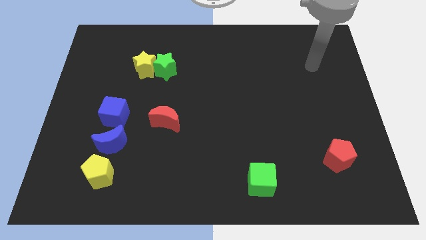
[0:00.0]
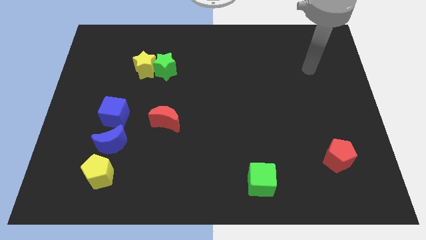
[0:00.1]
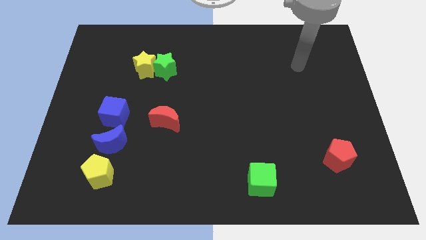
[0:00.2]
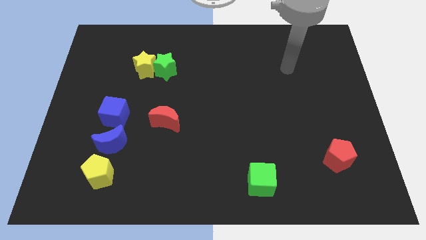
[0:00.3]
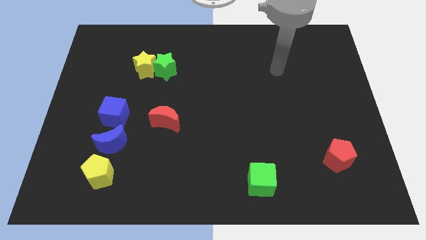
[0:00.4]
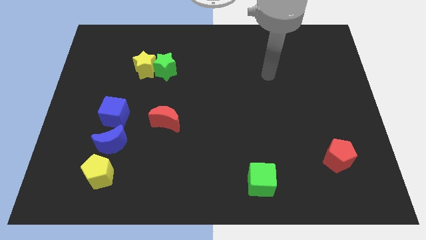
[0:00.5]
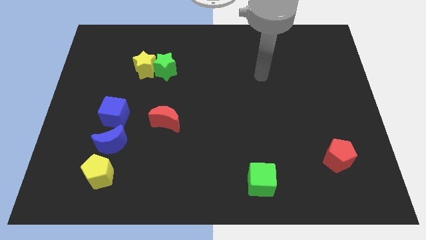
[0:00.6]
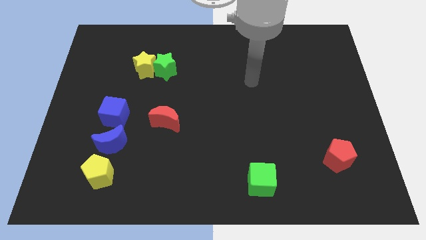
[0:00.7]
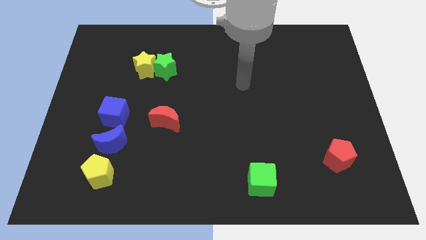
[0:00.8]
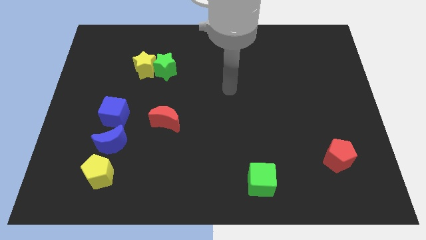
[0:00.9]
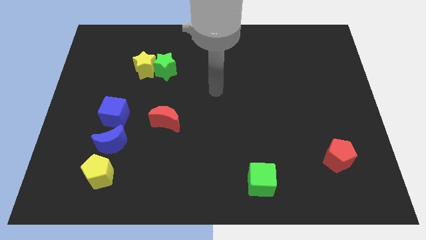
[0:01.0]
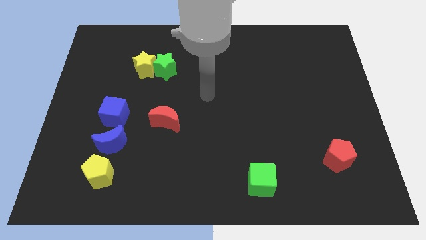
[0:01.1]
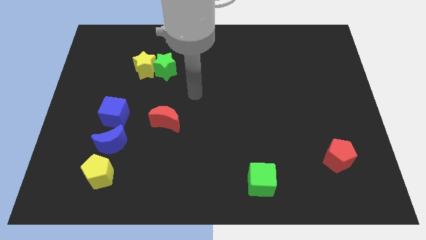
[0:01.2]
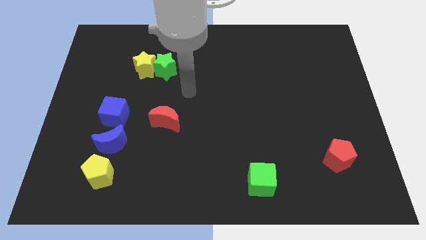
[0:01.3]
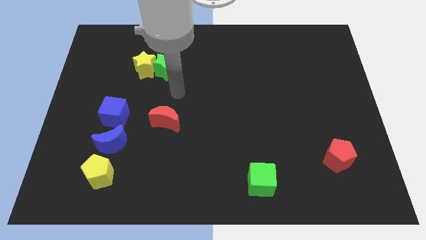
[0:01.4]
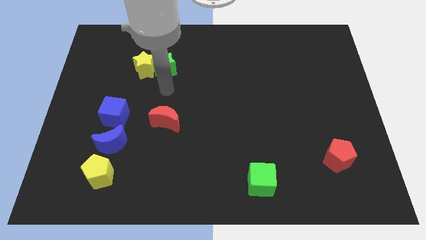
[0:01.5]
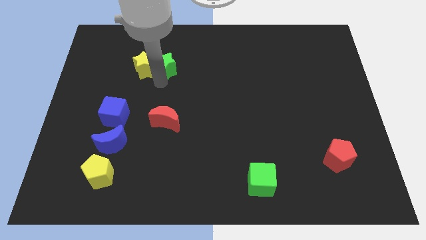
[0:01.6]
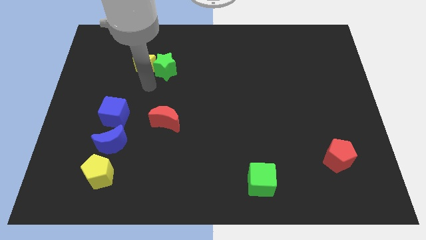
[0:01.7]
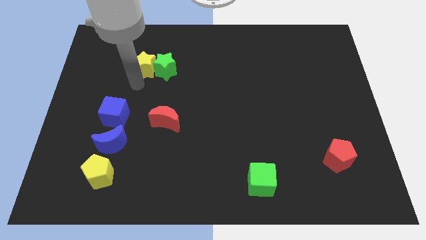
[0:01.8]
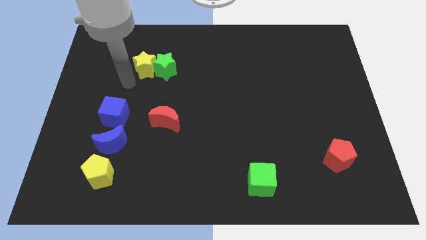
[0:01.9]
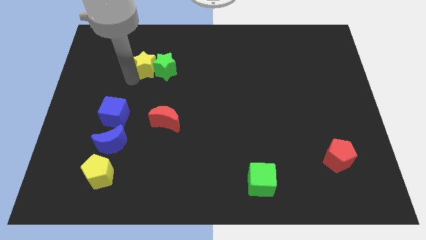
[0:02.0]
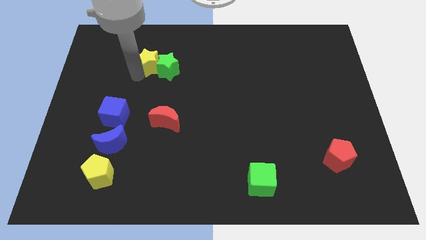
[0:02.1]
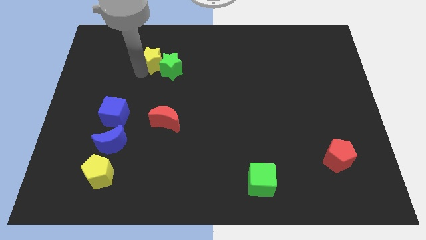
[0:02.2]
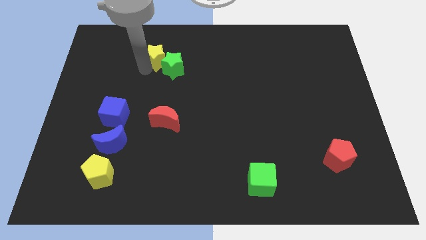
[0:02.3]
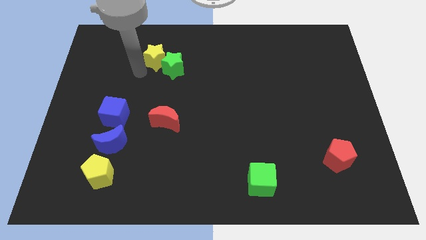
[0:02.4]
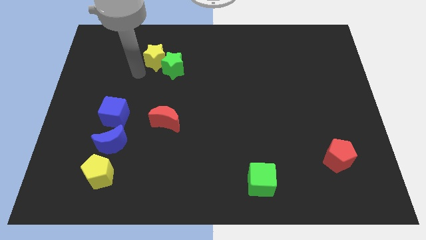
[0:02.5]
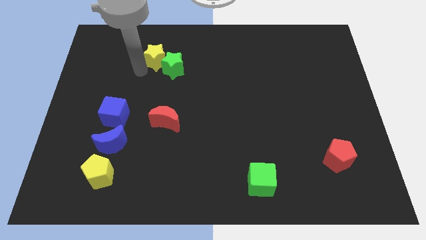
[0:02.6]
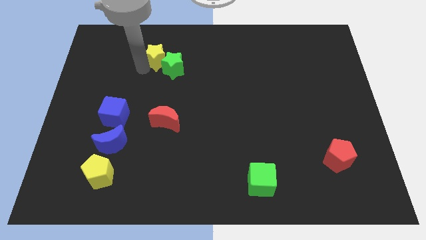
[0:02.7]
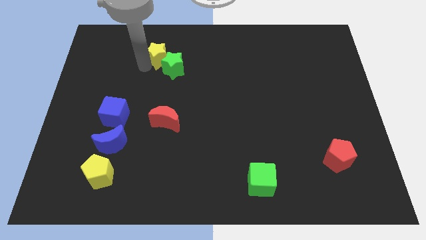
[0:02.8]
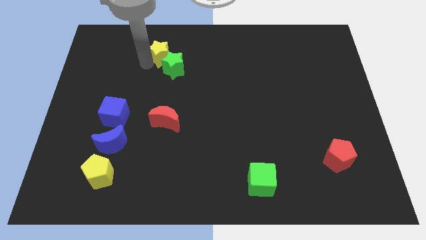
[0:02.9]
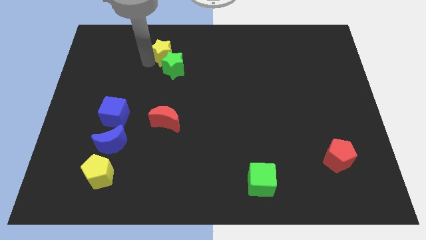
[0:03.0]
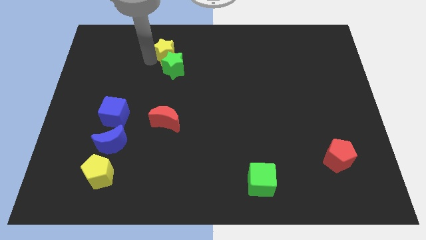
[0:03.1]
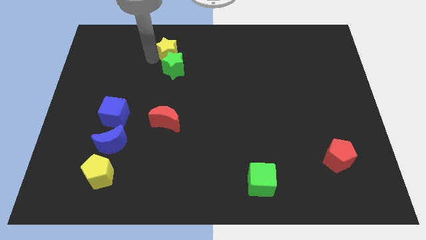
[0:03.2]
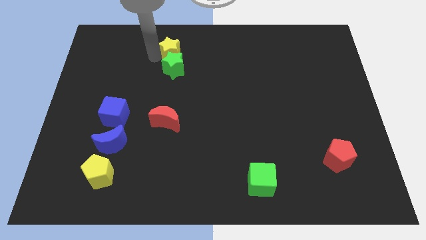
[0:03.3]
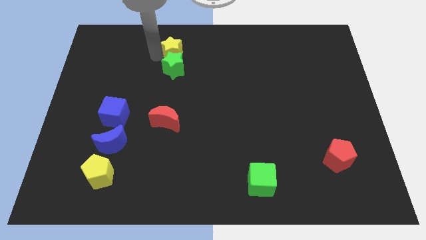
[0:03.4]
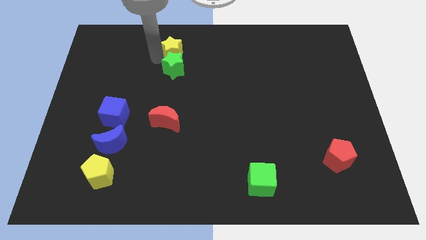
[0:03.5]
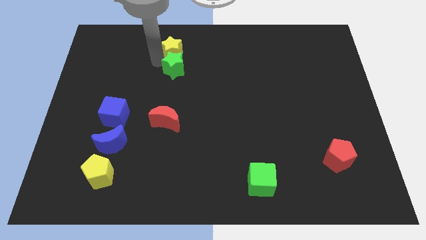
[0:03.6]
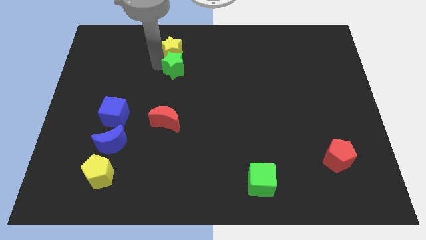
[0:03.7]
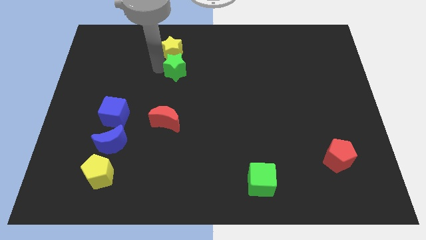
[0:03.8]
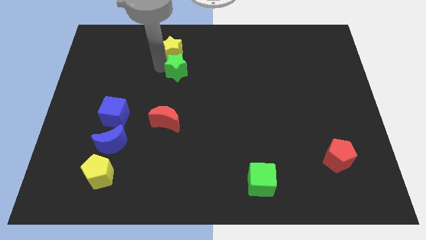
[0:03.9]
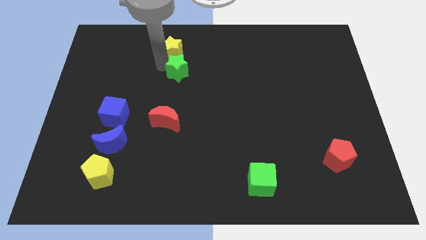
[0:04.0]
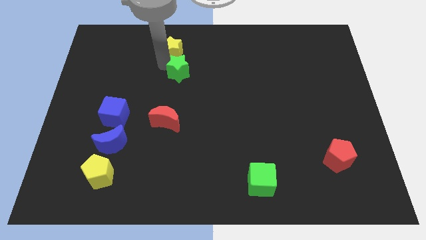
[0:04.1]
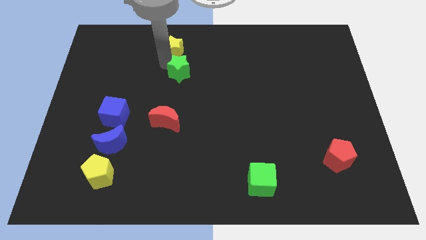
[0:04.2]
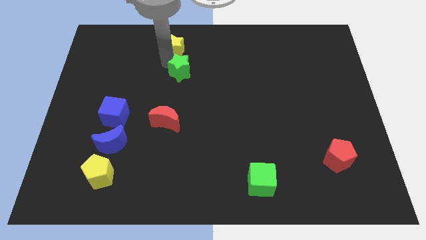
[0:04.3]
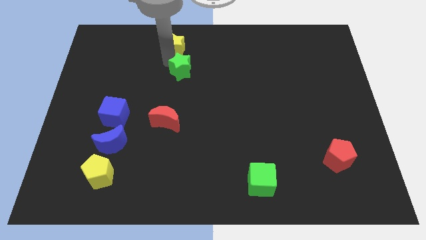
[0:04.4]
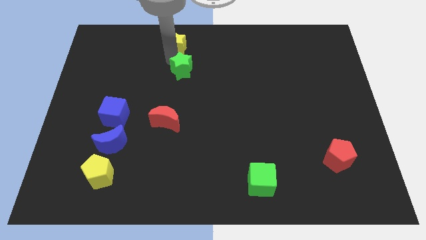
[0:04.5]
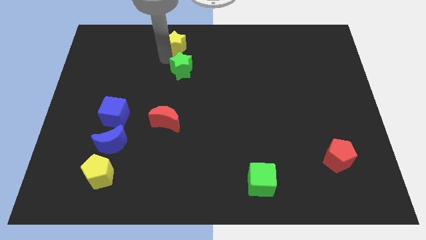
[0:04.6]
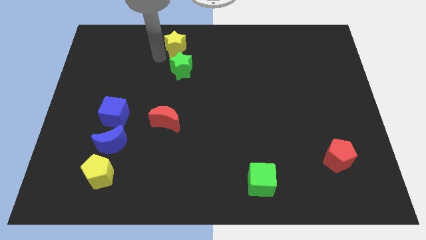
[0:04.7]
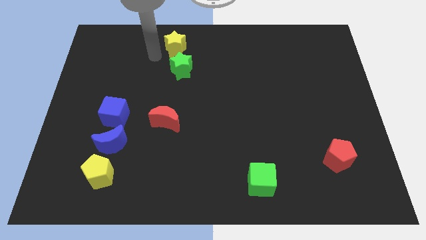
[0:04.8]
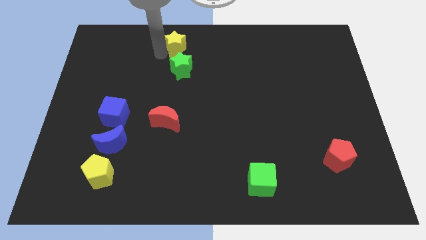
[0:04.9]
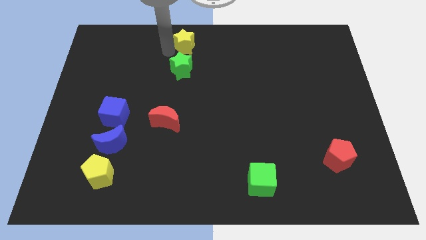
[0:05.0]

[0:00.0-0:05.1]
slide the yellow star to the towards your base

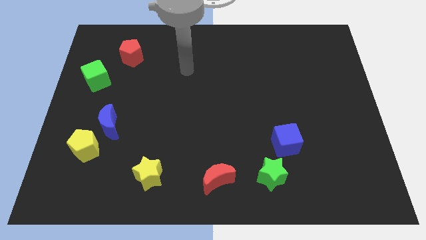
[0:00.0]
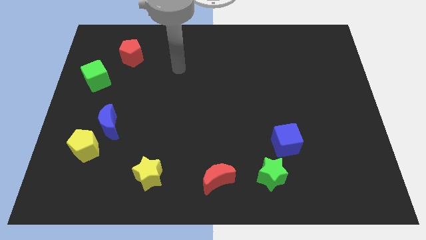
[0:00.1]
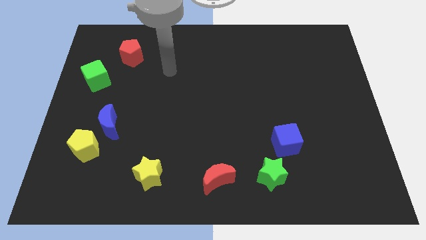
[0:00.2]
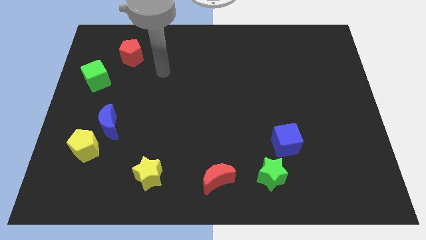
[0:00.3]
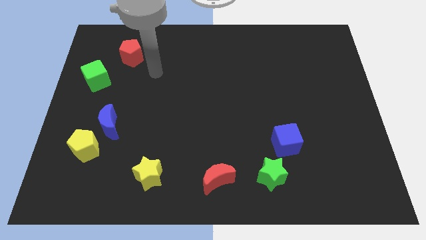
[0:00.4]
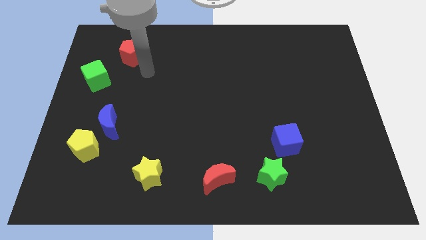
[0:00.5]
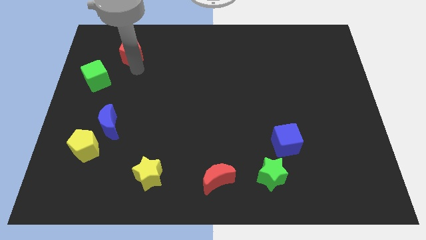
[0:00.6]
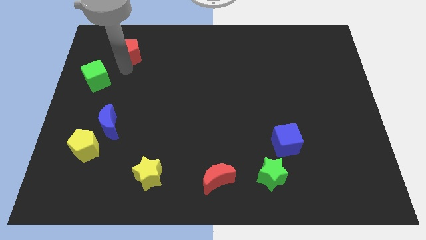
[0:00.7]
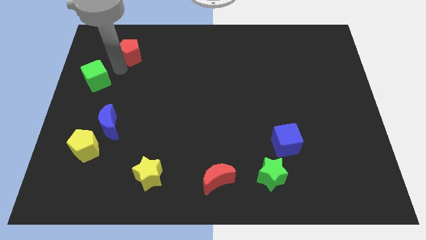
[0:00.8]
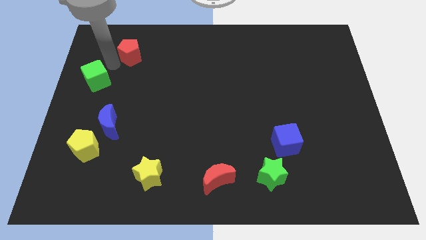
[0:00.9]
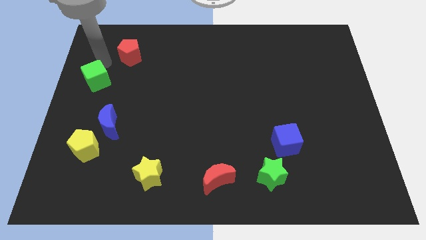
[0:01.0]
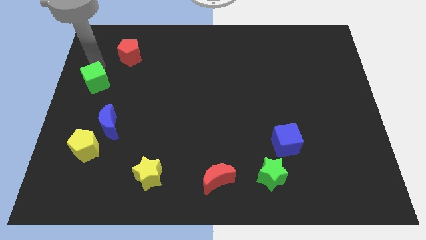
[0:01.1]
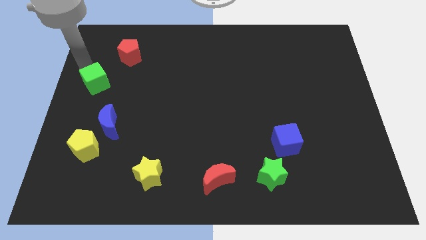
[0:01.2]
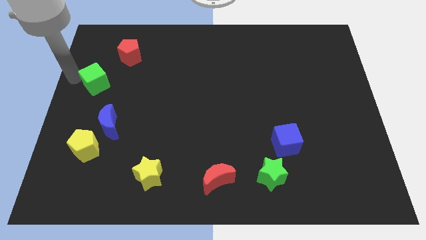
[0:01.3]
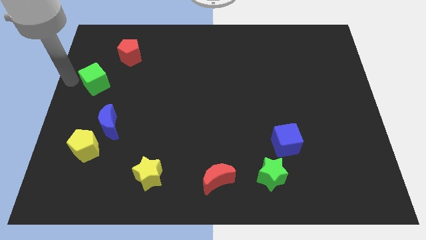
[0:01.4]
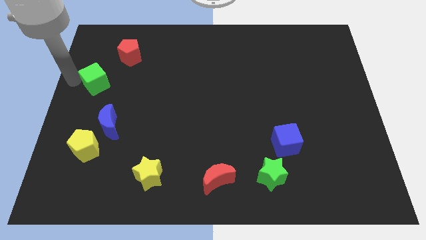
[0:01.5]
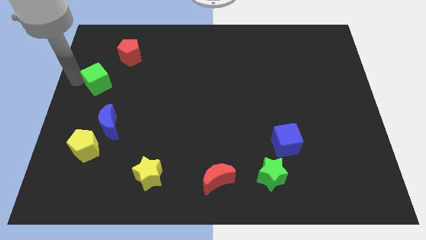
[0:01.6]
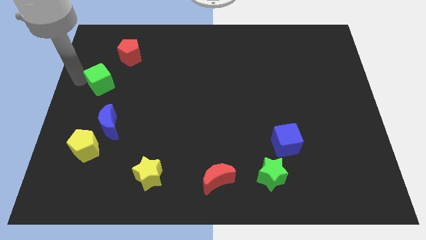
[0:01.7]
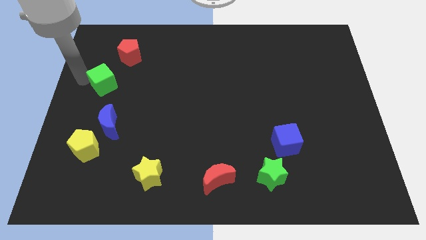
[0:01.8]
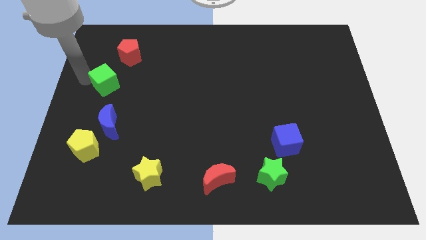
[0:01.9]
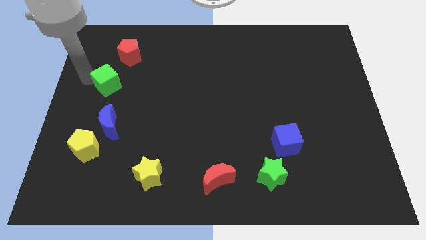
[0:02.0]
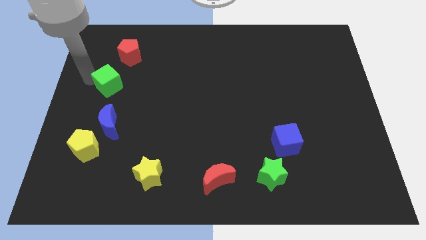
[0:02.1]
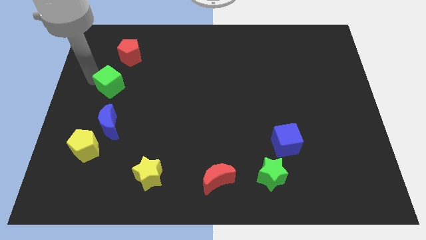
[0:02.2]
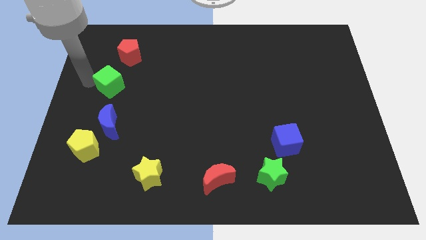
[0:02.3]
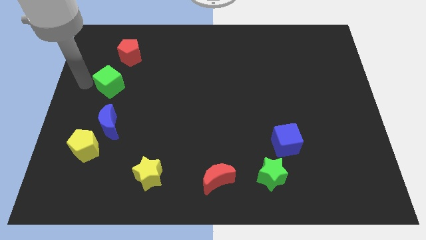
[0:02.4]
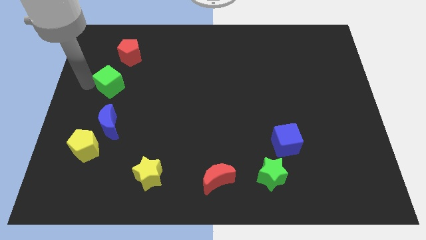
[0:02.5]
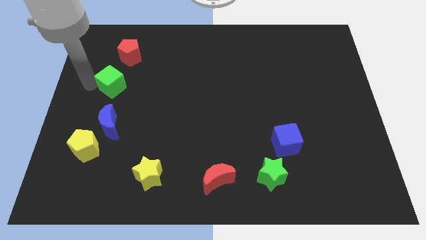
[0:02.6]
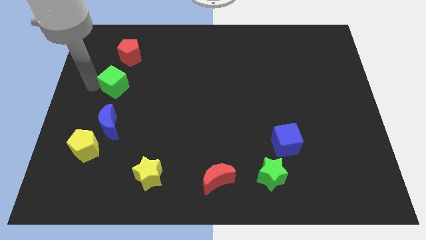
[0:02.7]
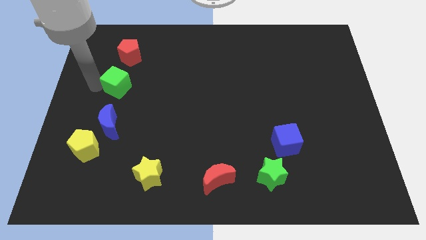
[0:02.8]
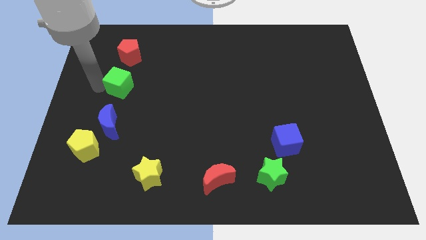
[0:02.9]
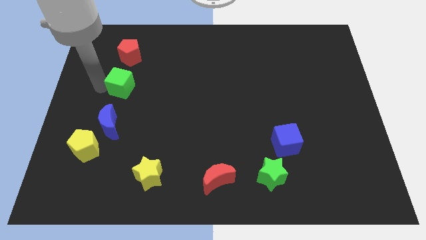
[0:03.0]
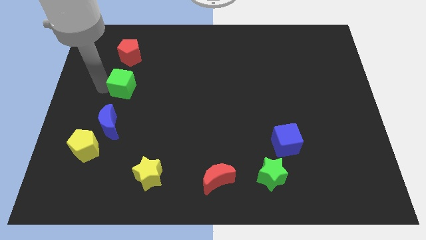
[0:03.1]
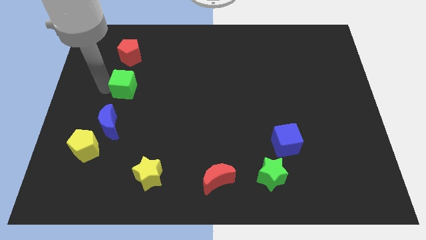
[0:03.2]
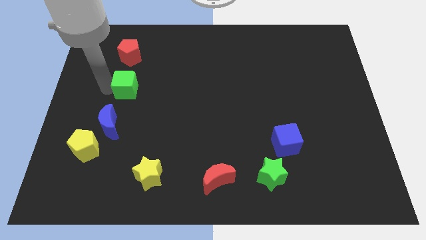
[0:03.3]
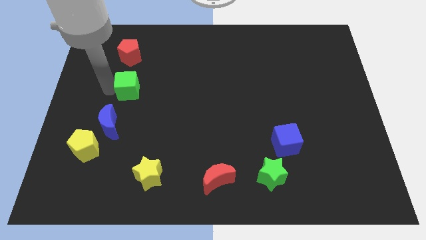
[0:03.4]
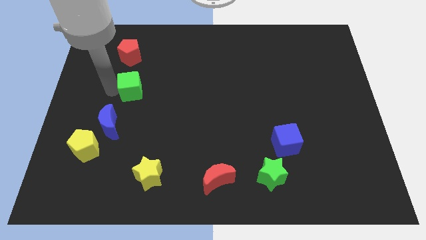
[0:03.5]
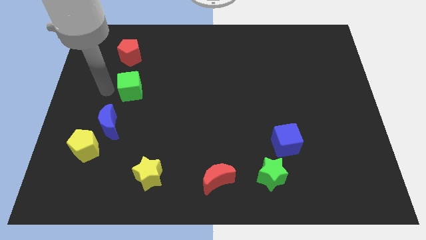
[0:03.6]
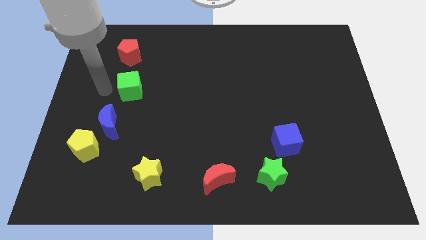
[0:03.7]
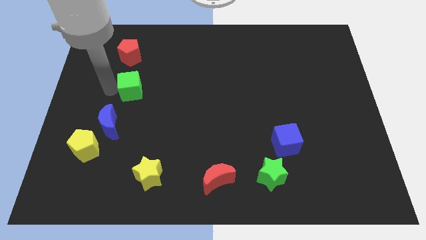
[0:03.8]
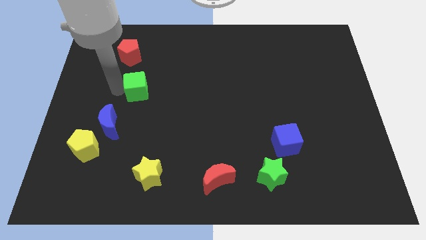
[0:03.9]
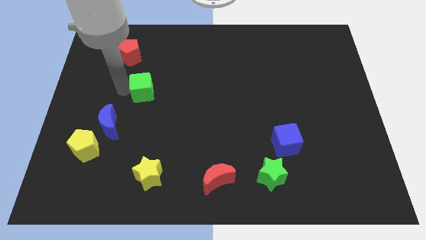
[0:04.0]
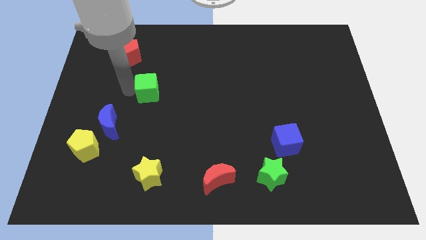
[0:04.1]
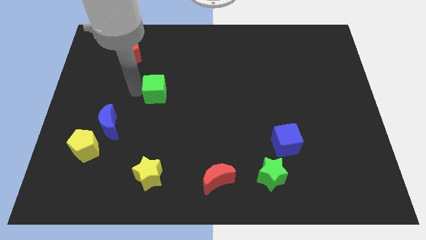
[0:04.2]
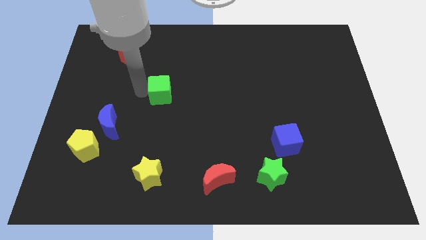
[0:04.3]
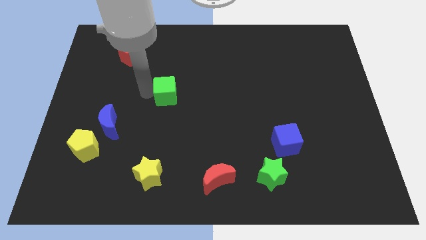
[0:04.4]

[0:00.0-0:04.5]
slide the green cube to the center of the board
